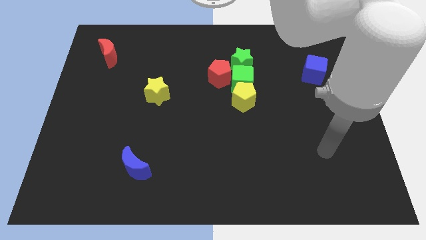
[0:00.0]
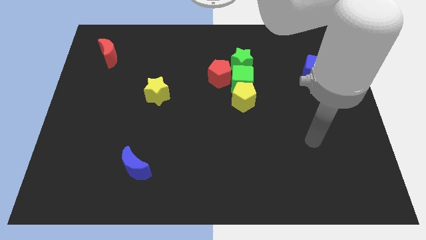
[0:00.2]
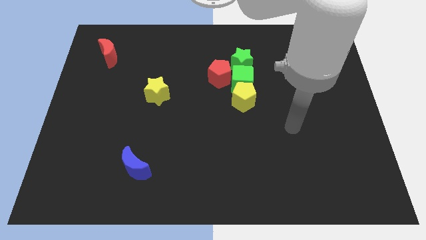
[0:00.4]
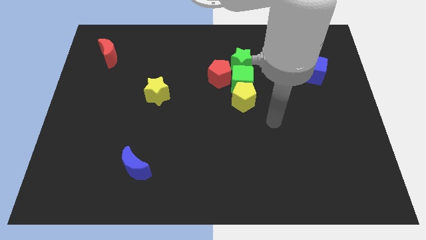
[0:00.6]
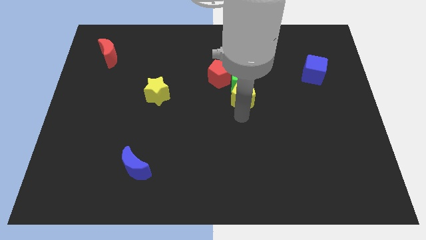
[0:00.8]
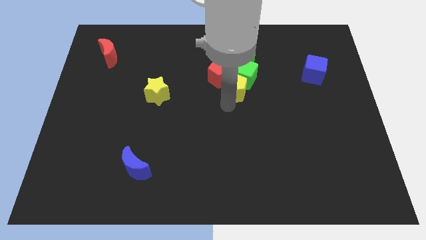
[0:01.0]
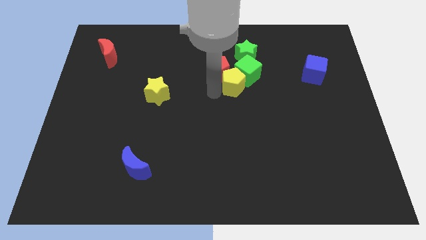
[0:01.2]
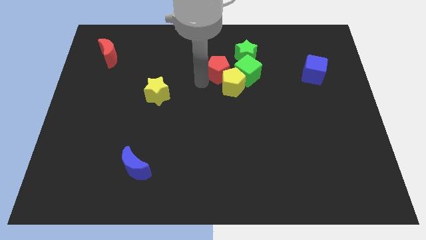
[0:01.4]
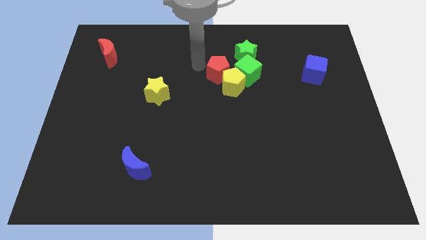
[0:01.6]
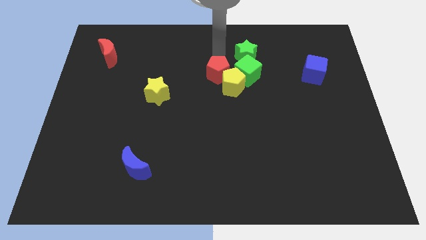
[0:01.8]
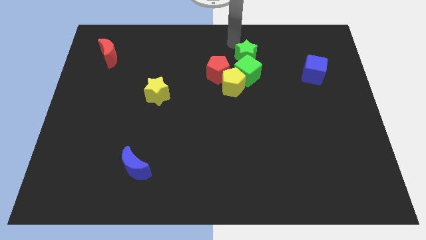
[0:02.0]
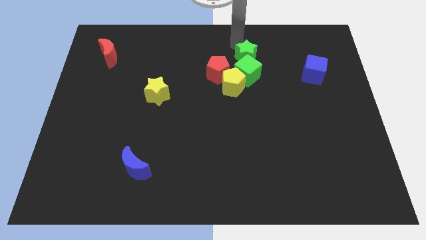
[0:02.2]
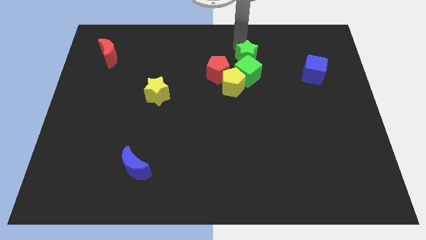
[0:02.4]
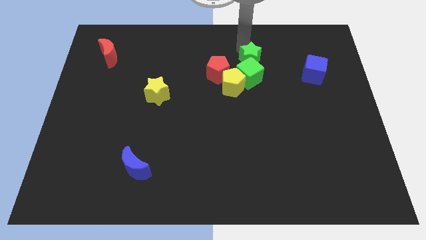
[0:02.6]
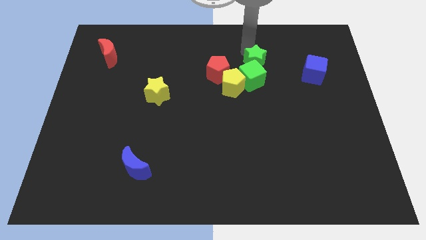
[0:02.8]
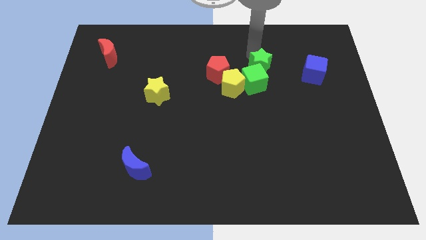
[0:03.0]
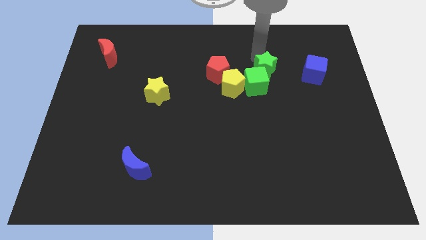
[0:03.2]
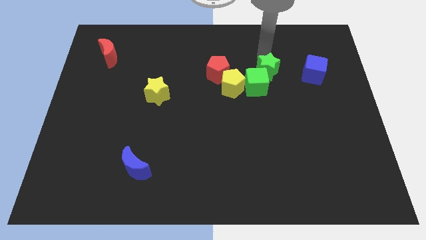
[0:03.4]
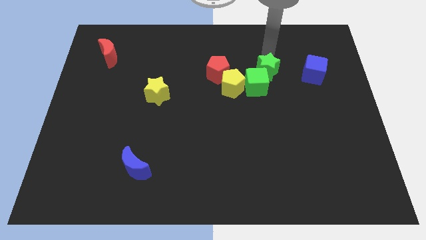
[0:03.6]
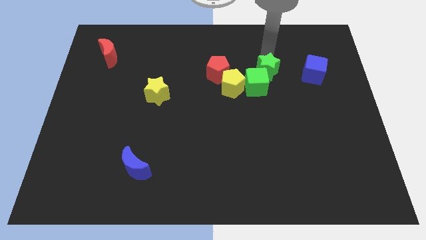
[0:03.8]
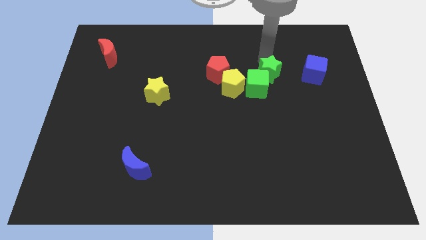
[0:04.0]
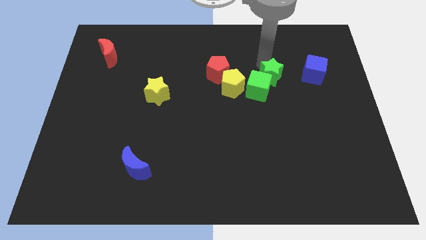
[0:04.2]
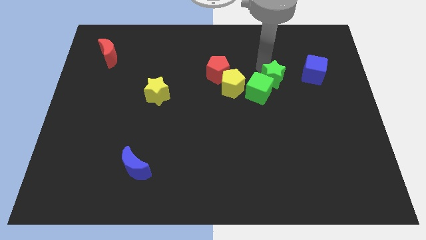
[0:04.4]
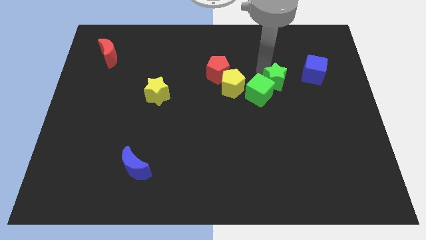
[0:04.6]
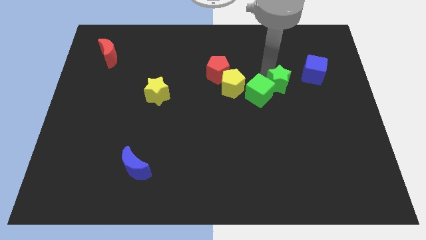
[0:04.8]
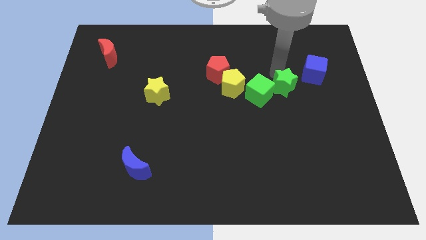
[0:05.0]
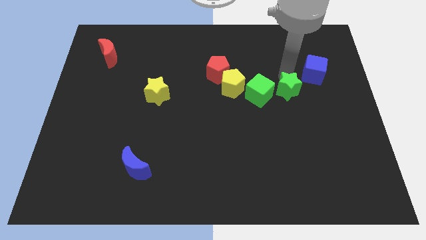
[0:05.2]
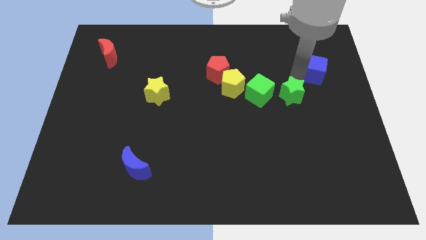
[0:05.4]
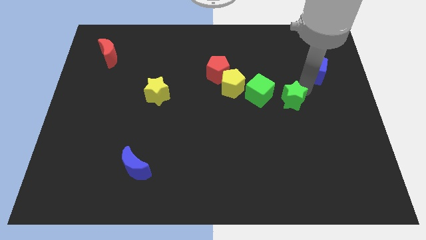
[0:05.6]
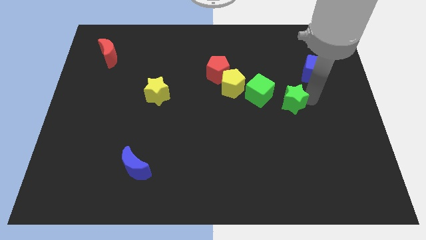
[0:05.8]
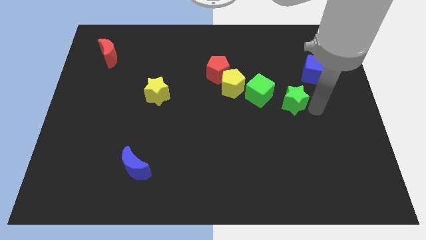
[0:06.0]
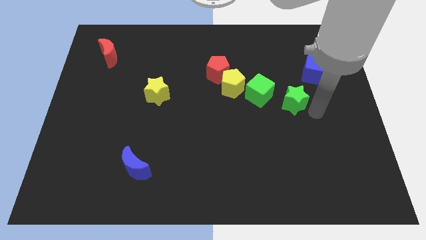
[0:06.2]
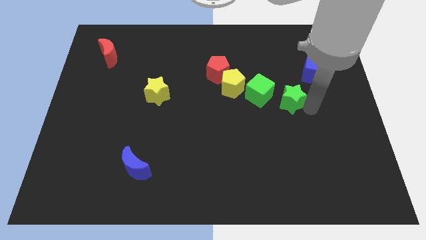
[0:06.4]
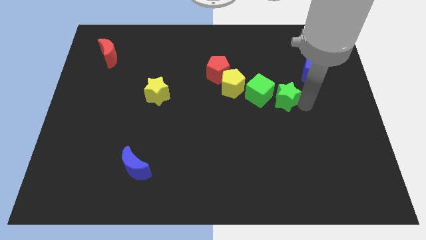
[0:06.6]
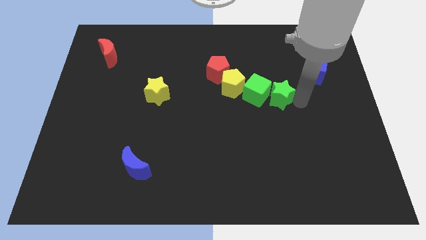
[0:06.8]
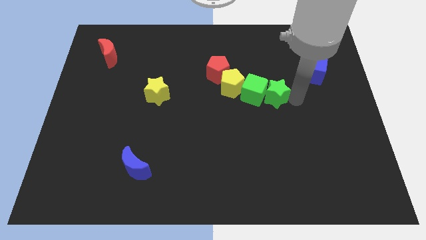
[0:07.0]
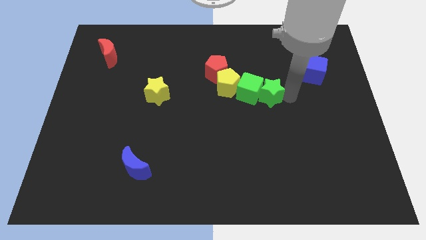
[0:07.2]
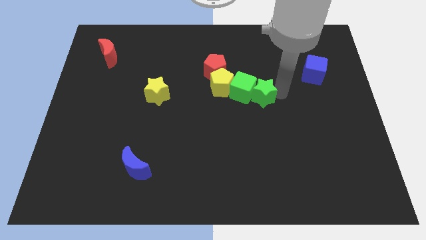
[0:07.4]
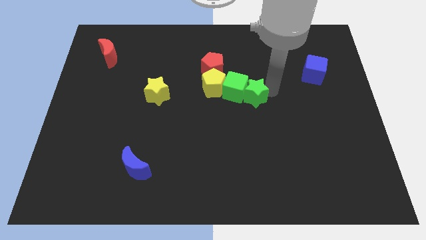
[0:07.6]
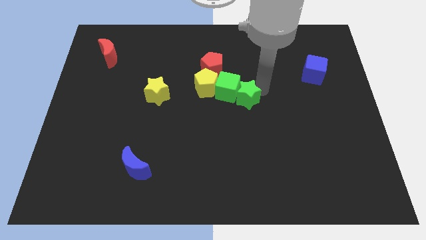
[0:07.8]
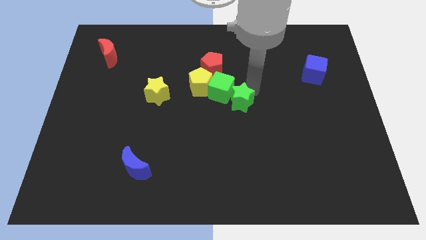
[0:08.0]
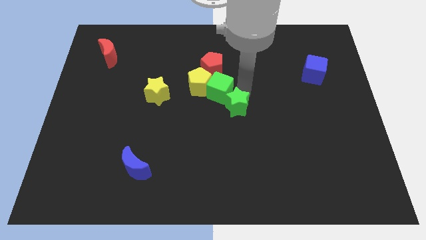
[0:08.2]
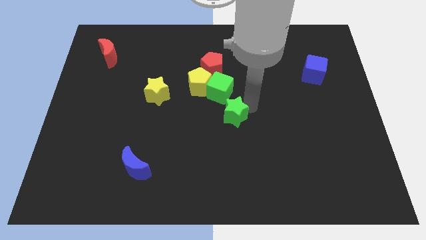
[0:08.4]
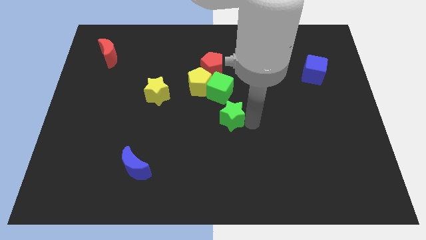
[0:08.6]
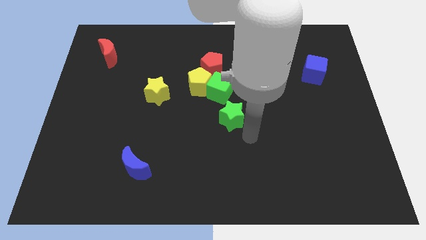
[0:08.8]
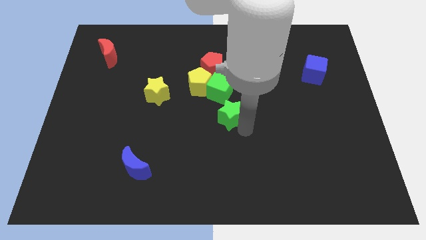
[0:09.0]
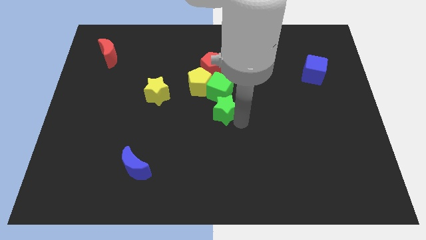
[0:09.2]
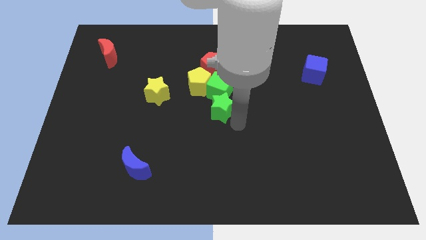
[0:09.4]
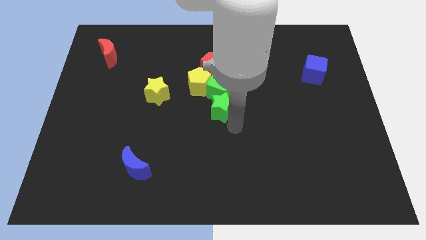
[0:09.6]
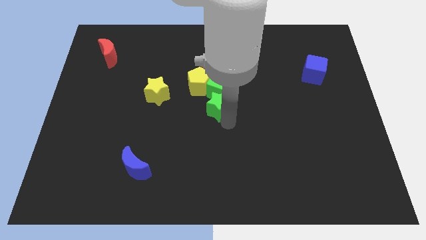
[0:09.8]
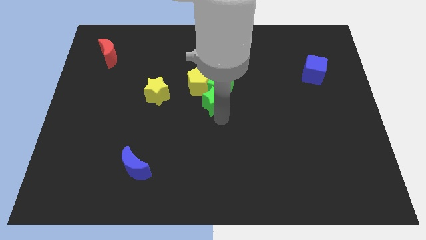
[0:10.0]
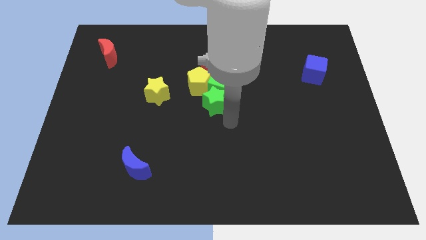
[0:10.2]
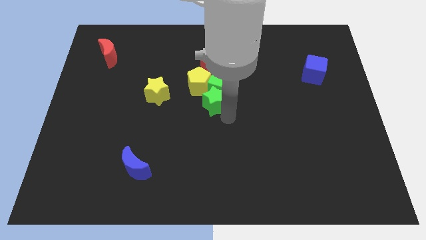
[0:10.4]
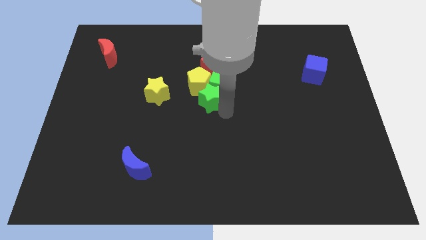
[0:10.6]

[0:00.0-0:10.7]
slide the green star towards the yellow pentagon

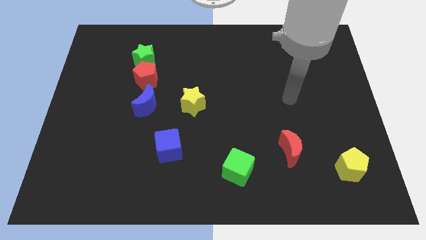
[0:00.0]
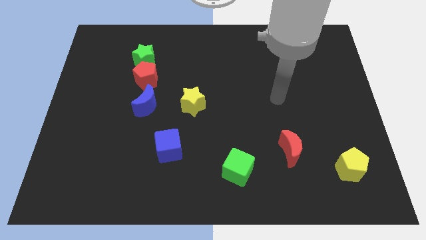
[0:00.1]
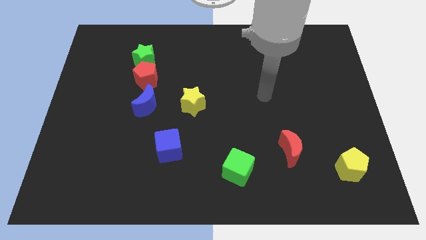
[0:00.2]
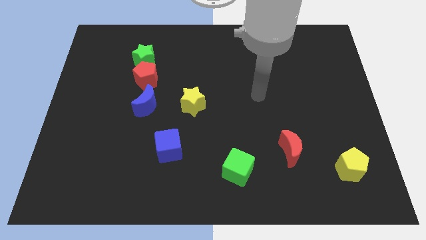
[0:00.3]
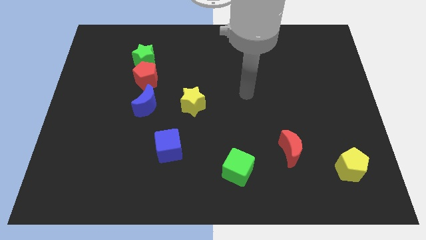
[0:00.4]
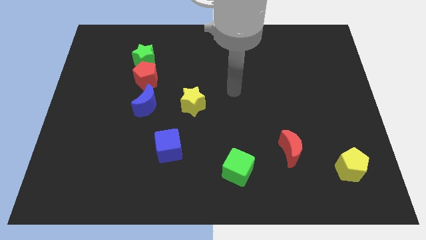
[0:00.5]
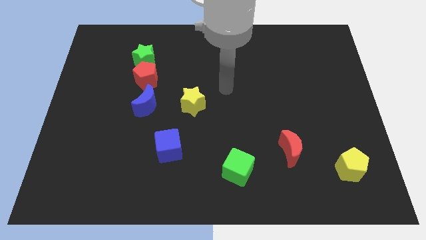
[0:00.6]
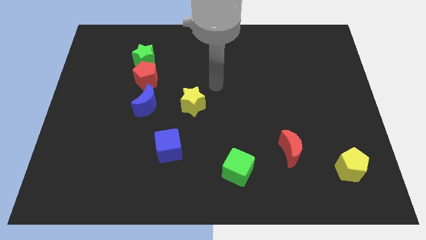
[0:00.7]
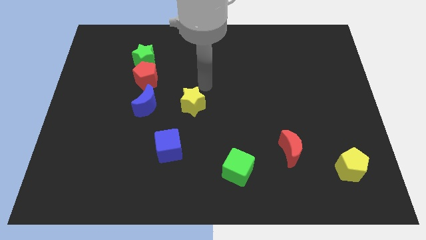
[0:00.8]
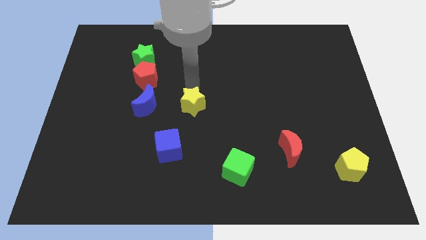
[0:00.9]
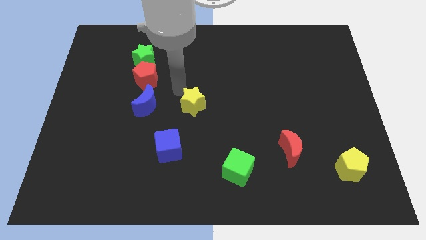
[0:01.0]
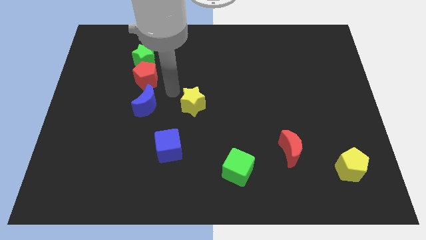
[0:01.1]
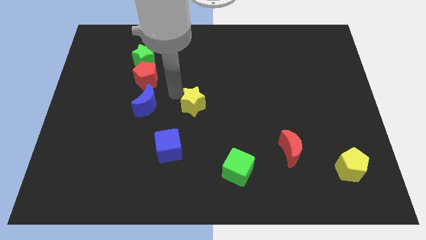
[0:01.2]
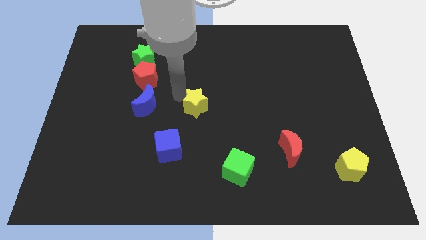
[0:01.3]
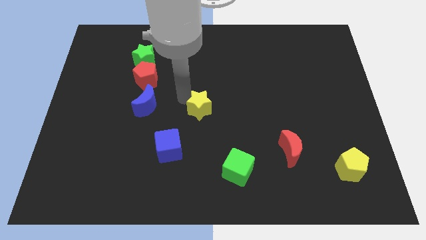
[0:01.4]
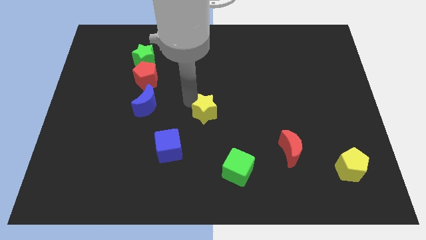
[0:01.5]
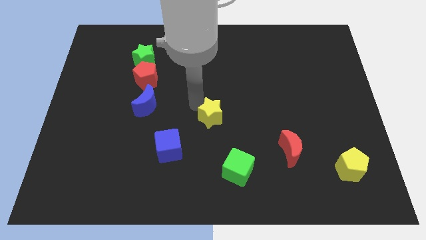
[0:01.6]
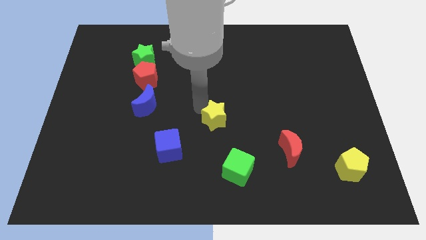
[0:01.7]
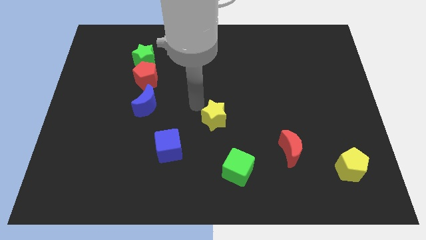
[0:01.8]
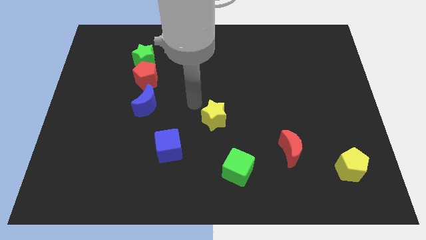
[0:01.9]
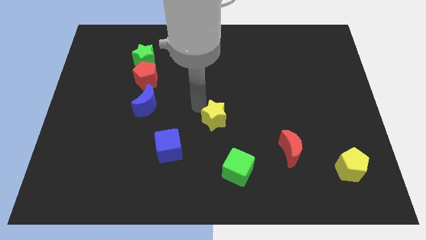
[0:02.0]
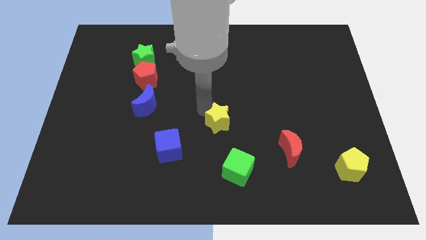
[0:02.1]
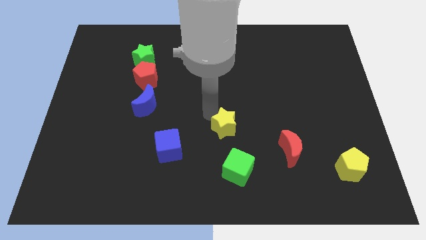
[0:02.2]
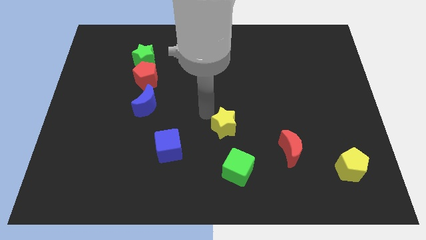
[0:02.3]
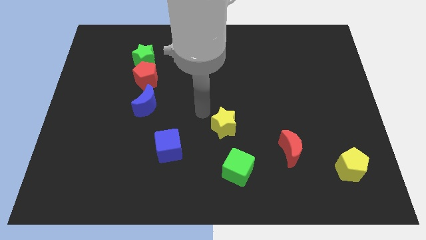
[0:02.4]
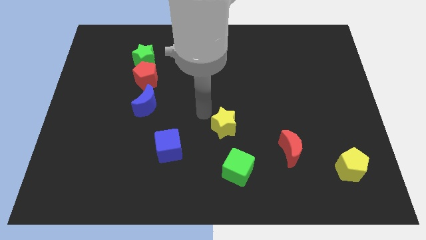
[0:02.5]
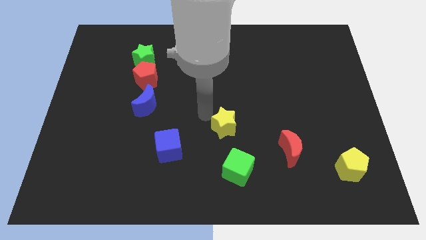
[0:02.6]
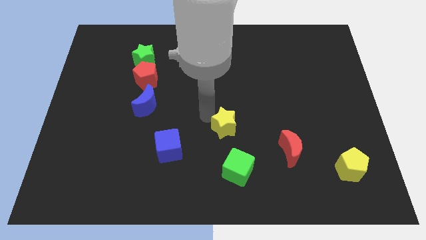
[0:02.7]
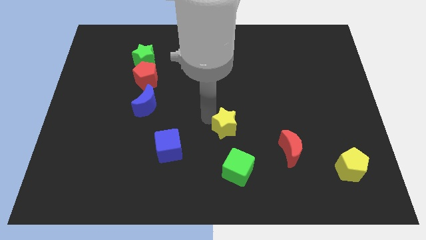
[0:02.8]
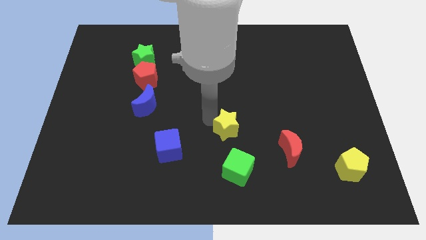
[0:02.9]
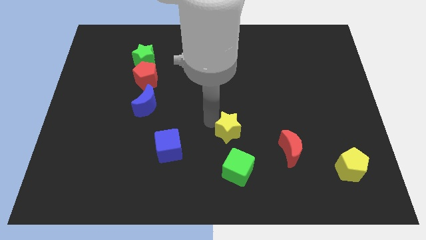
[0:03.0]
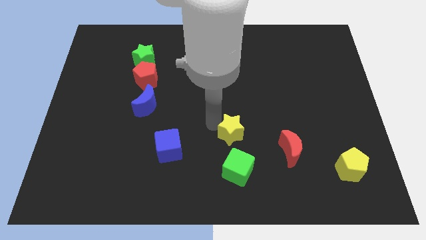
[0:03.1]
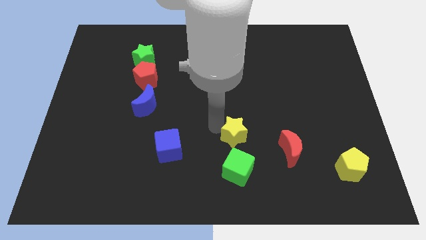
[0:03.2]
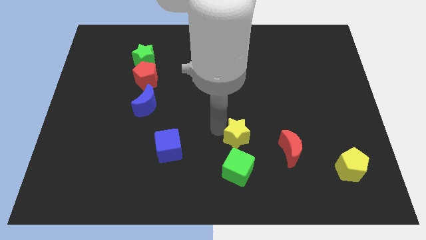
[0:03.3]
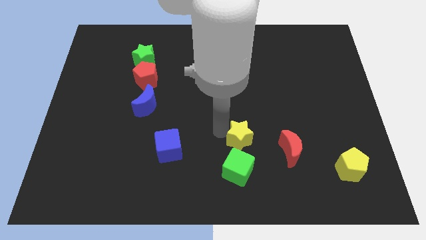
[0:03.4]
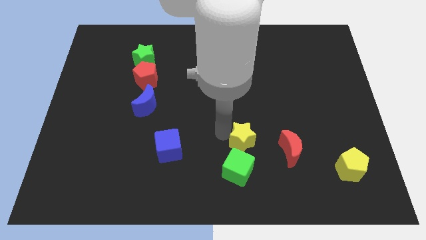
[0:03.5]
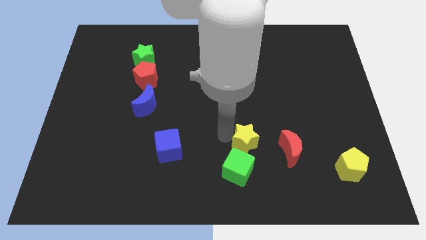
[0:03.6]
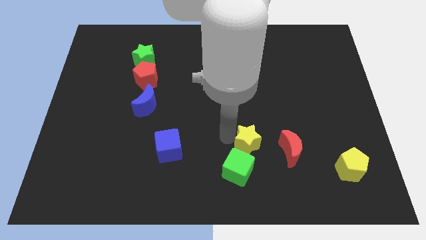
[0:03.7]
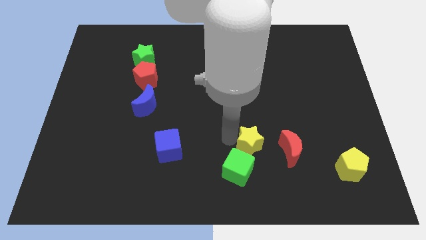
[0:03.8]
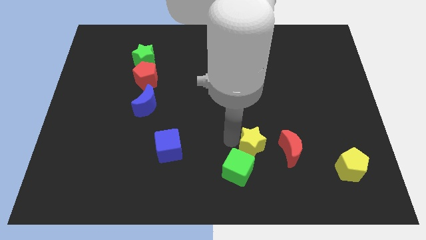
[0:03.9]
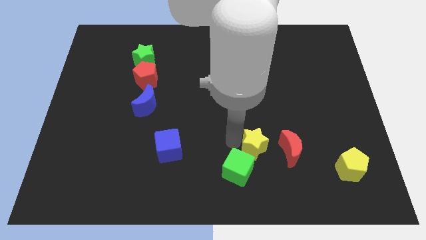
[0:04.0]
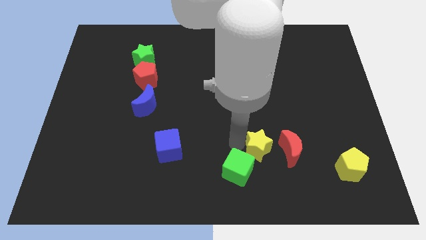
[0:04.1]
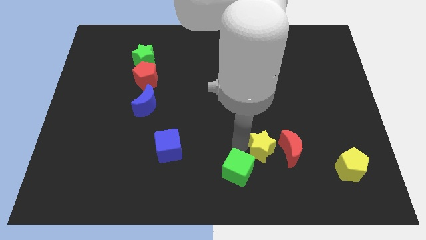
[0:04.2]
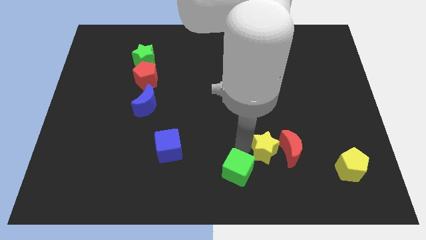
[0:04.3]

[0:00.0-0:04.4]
put the yellow star towards the red moon
